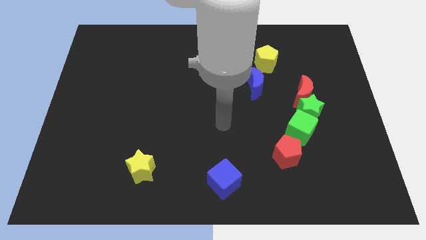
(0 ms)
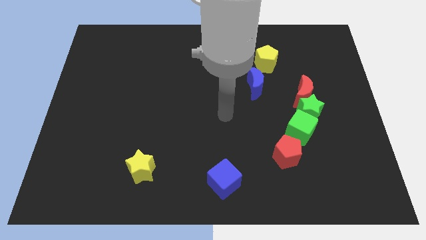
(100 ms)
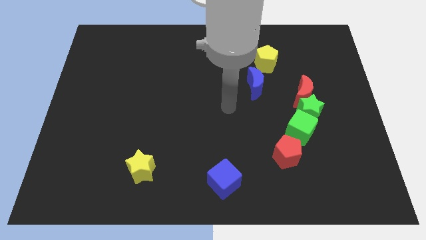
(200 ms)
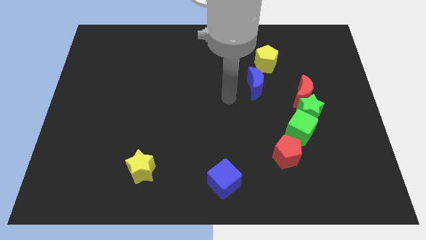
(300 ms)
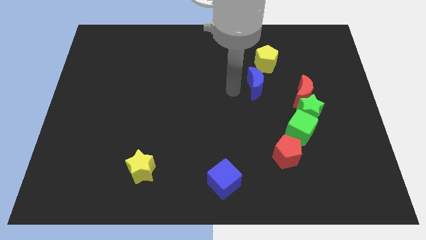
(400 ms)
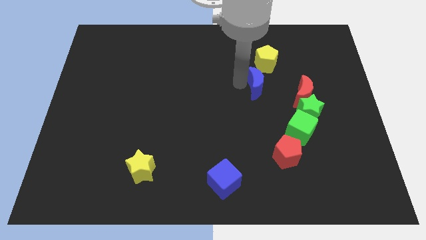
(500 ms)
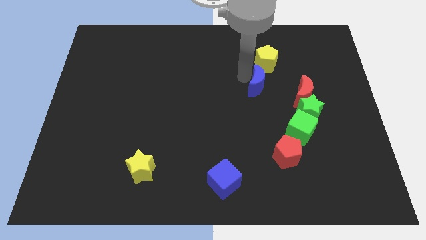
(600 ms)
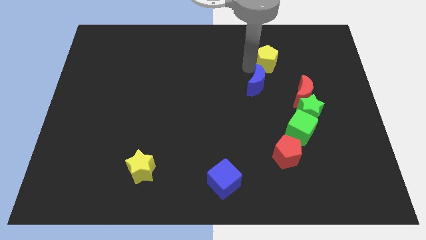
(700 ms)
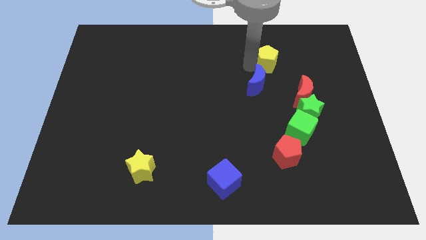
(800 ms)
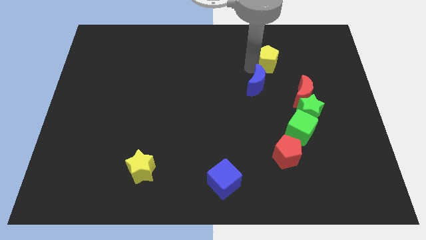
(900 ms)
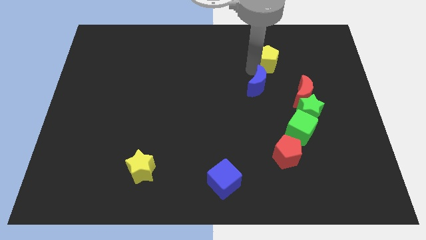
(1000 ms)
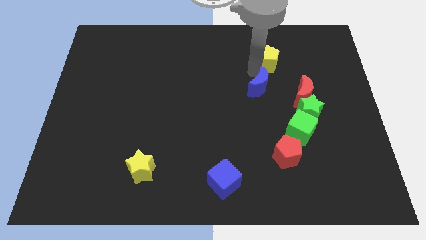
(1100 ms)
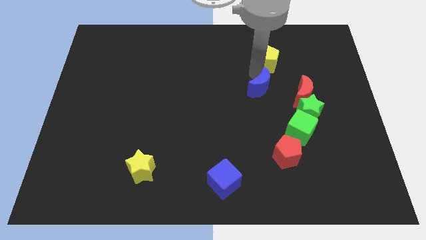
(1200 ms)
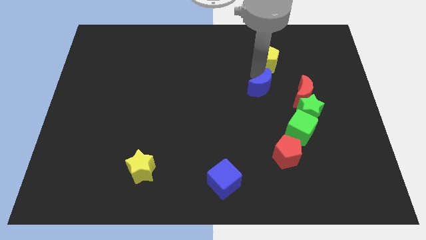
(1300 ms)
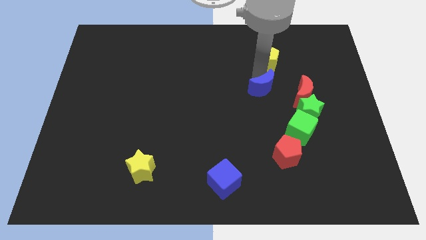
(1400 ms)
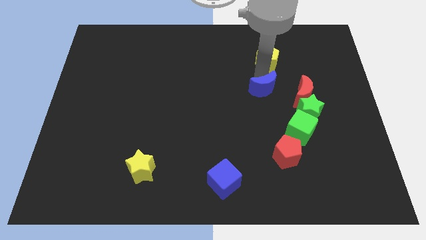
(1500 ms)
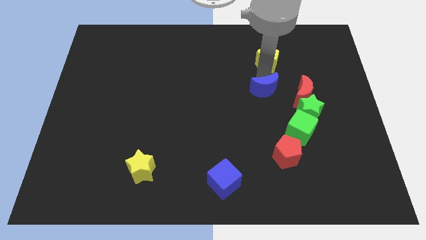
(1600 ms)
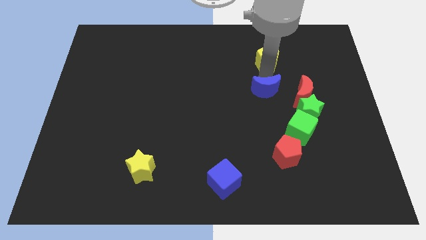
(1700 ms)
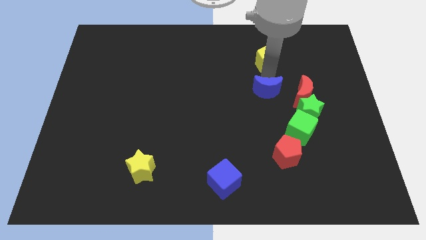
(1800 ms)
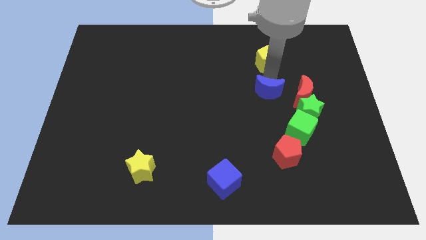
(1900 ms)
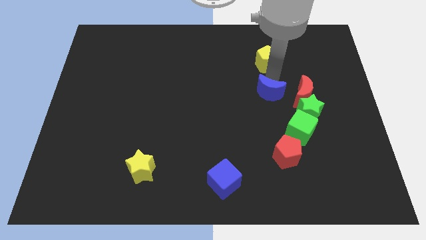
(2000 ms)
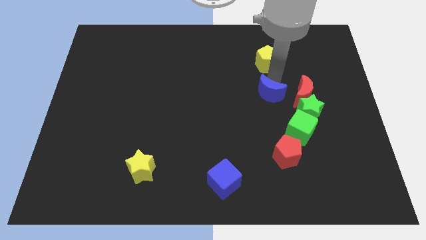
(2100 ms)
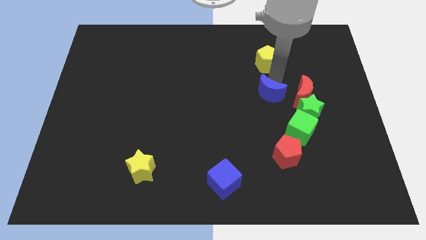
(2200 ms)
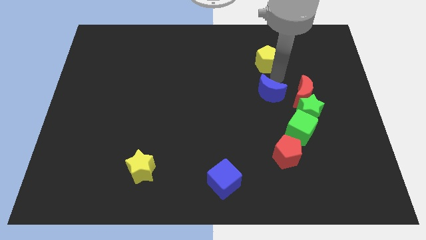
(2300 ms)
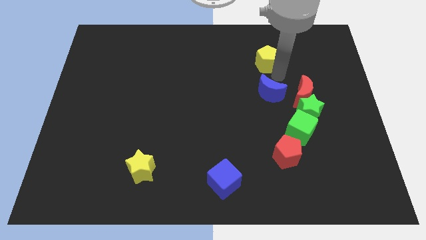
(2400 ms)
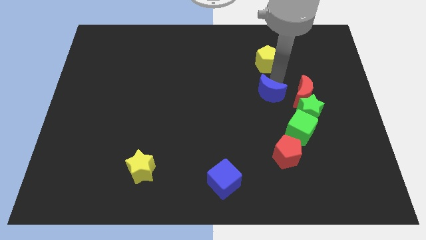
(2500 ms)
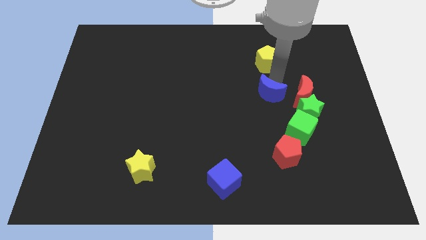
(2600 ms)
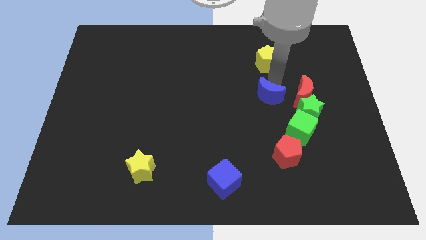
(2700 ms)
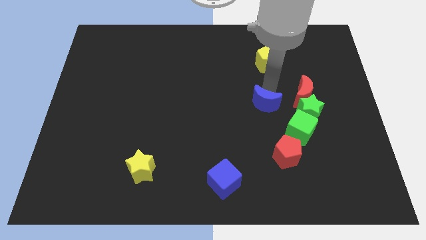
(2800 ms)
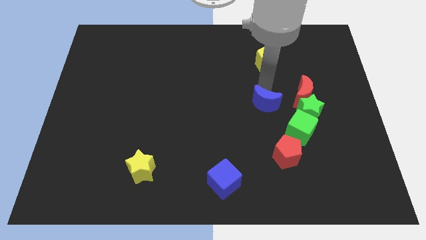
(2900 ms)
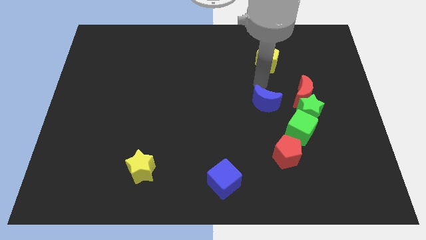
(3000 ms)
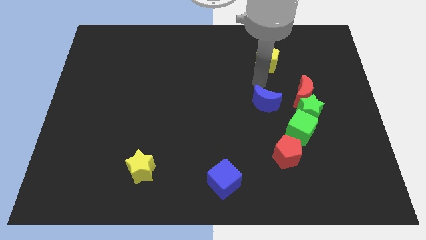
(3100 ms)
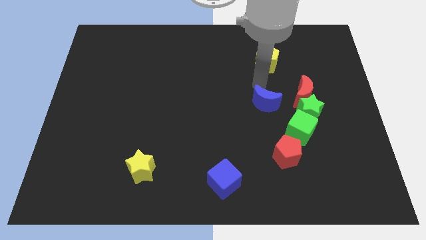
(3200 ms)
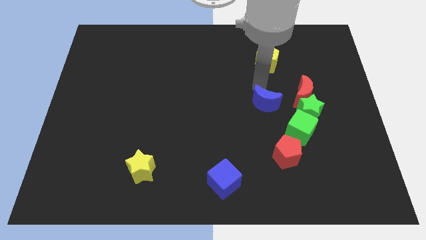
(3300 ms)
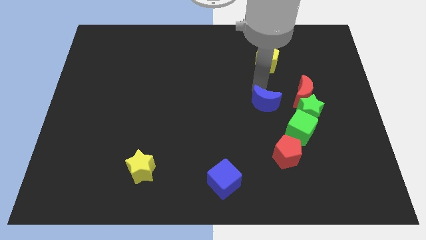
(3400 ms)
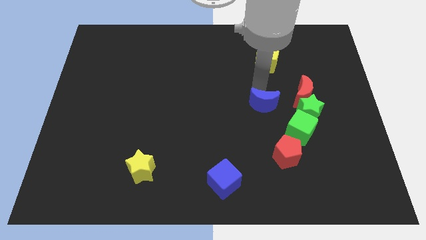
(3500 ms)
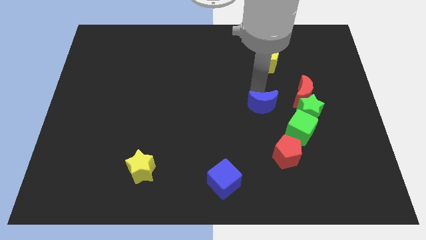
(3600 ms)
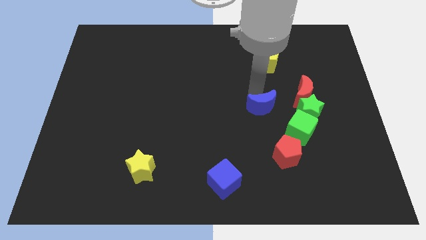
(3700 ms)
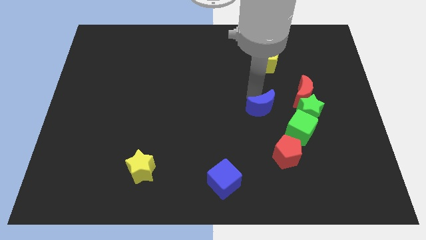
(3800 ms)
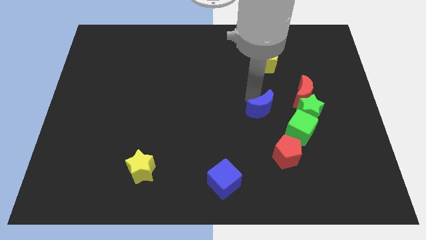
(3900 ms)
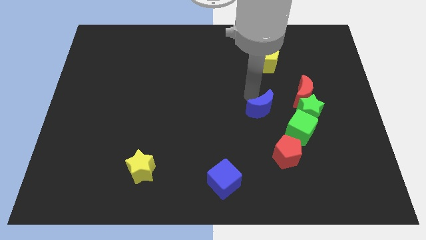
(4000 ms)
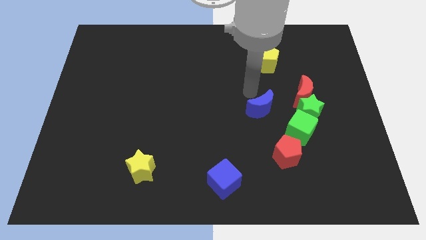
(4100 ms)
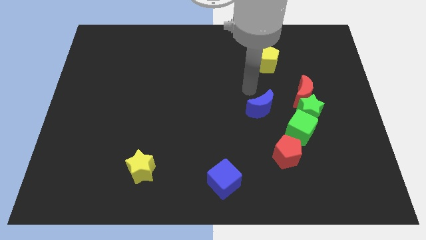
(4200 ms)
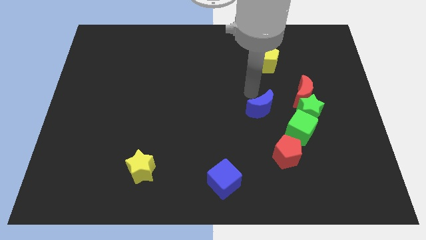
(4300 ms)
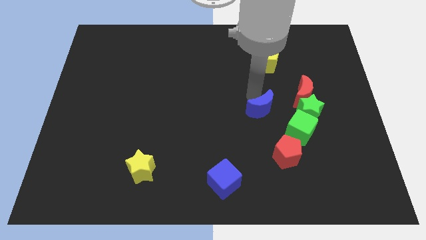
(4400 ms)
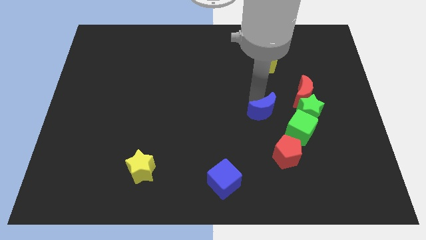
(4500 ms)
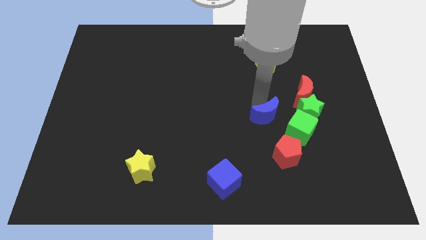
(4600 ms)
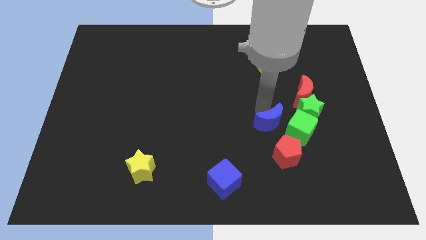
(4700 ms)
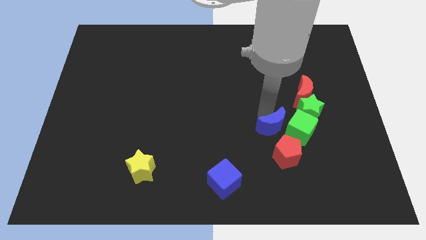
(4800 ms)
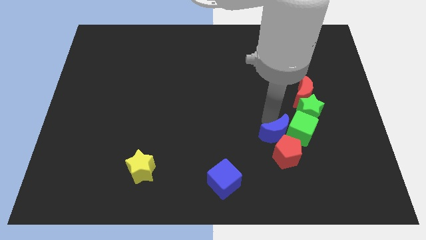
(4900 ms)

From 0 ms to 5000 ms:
move the blue moon towards the red pentagon

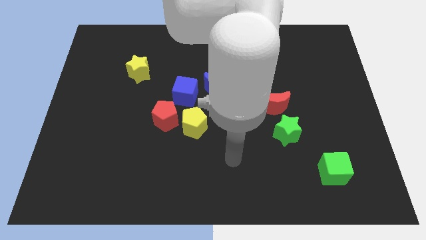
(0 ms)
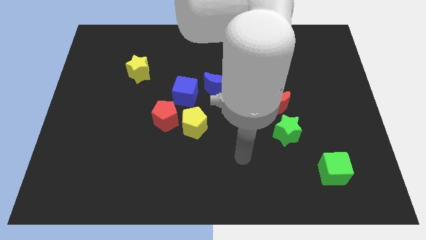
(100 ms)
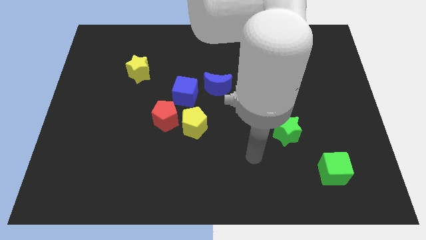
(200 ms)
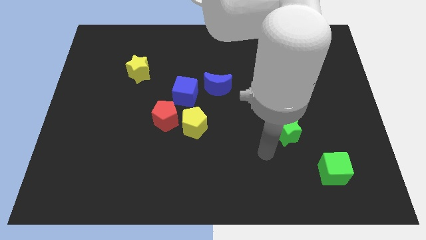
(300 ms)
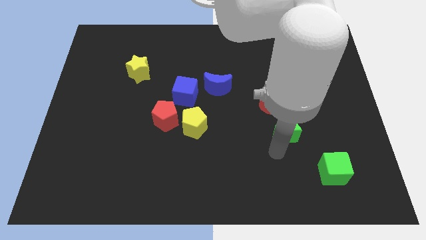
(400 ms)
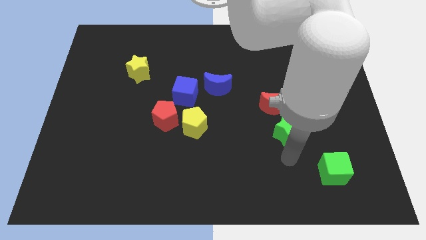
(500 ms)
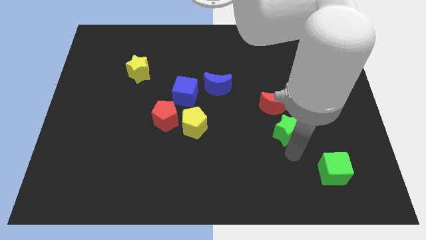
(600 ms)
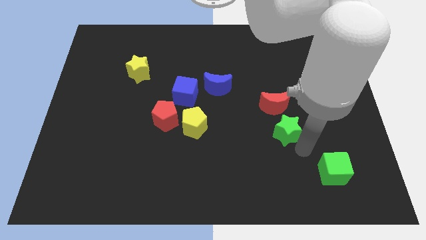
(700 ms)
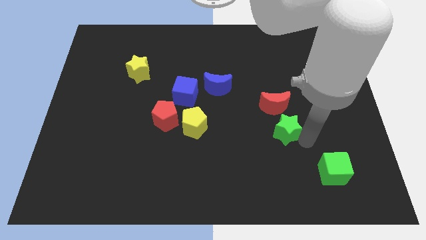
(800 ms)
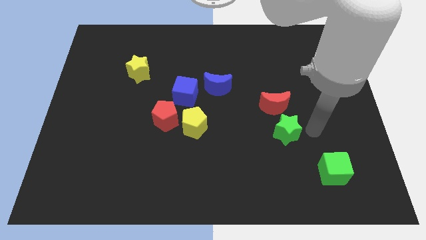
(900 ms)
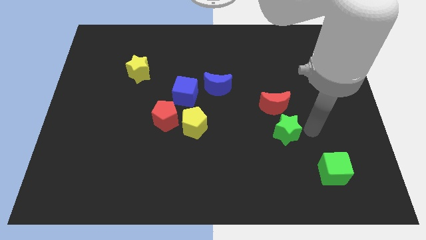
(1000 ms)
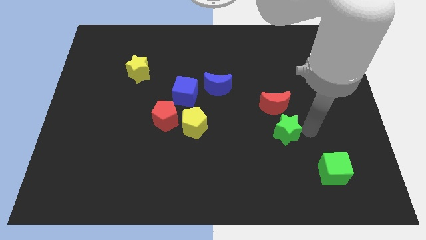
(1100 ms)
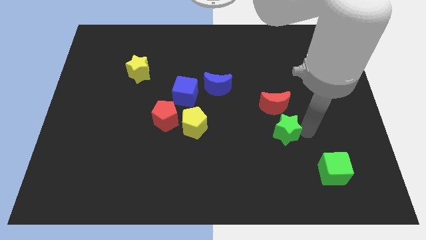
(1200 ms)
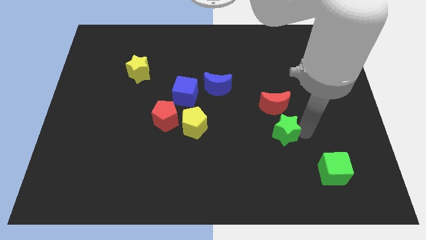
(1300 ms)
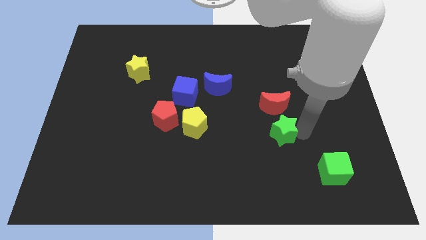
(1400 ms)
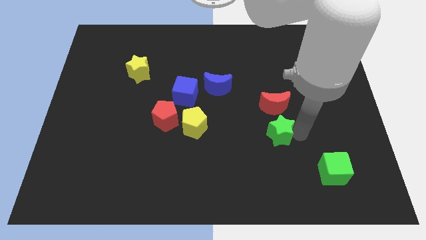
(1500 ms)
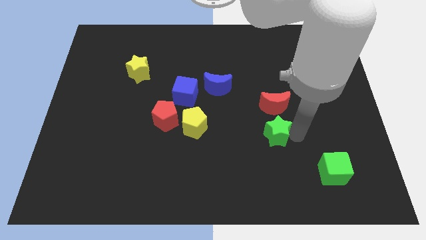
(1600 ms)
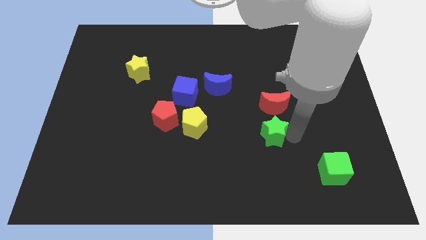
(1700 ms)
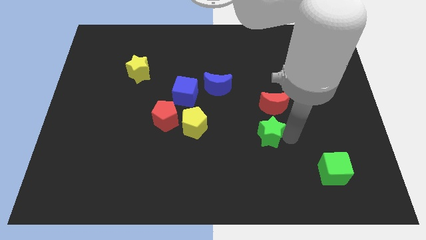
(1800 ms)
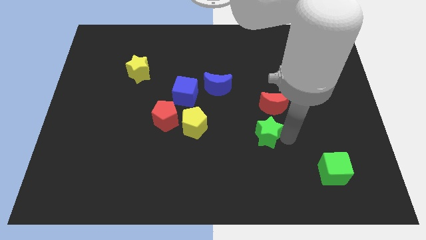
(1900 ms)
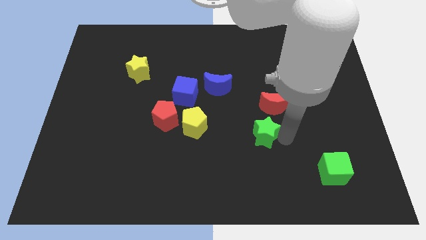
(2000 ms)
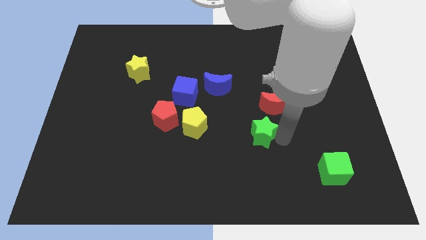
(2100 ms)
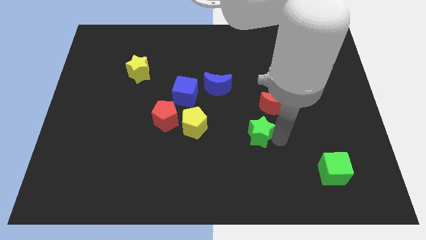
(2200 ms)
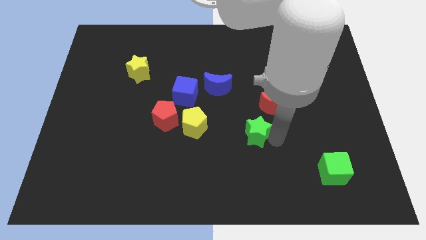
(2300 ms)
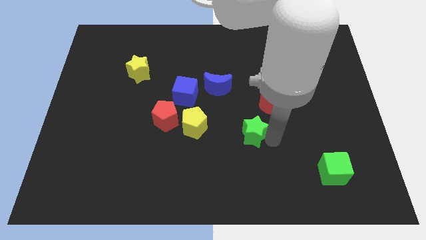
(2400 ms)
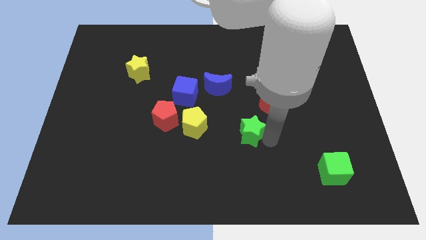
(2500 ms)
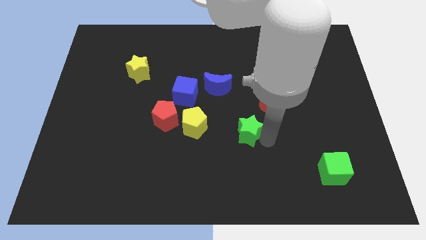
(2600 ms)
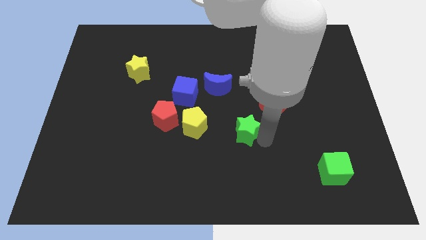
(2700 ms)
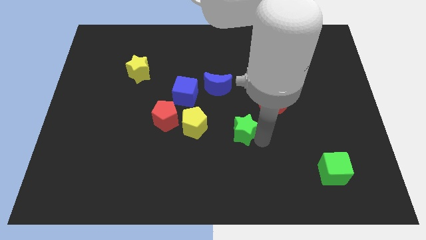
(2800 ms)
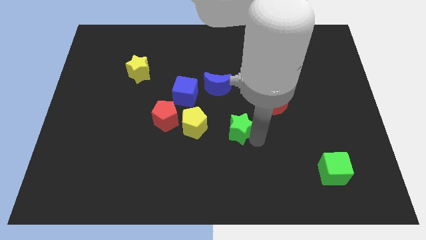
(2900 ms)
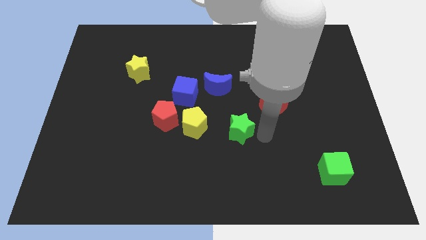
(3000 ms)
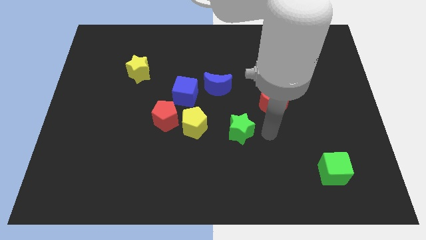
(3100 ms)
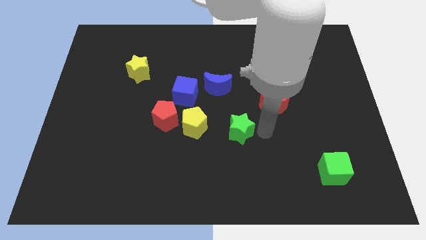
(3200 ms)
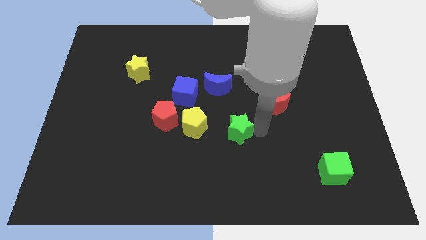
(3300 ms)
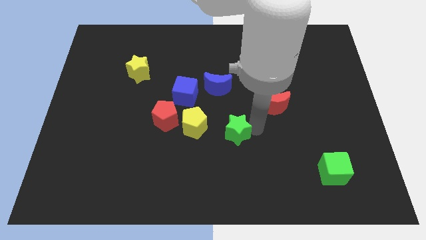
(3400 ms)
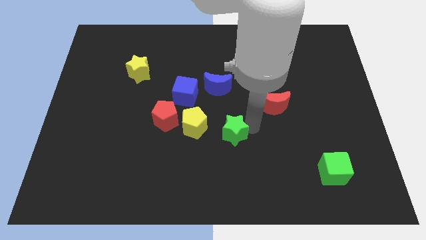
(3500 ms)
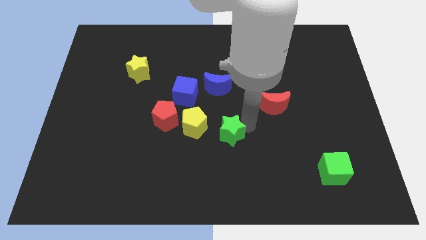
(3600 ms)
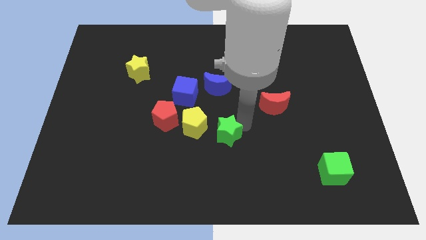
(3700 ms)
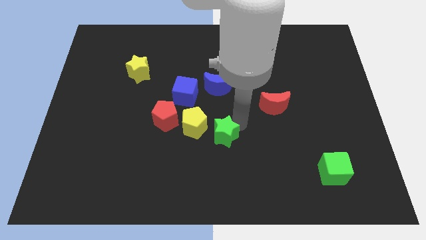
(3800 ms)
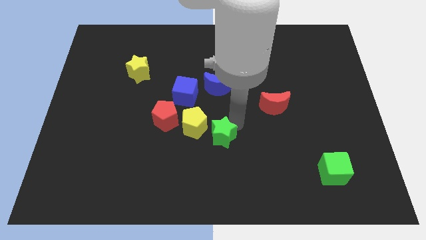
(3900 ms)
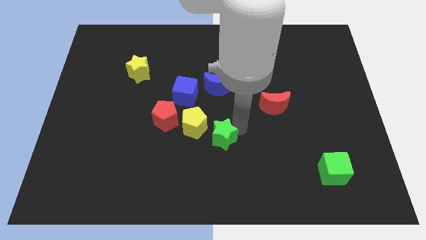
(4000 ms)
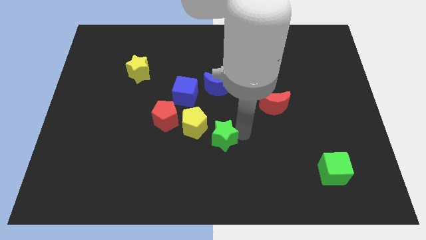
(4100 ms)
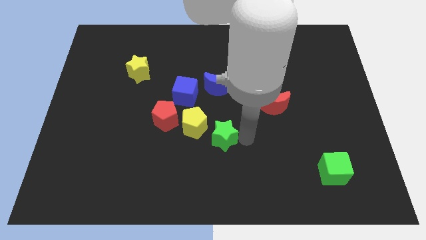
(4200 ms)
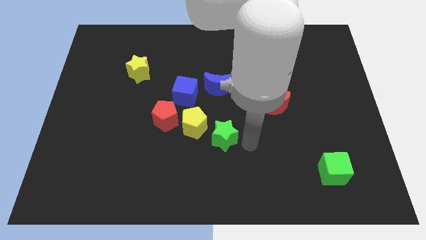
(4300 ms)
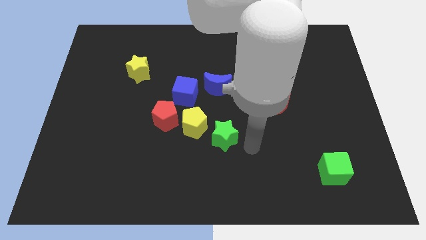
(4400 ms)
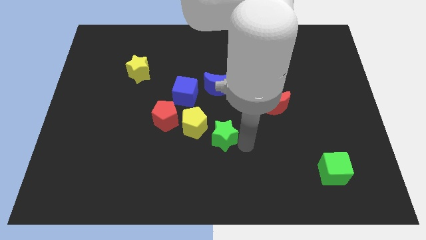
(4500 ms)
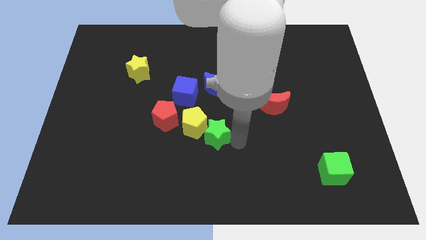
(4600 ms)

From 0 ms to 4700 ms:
move the green star next to the yellow pentagon
